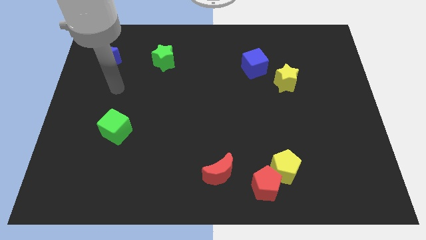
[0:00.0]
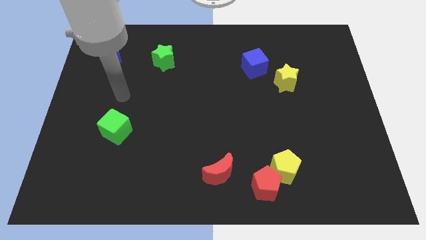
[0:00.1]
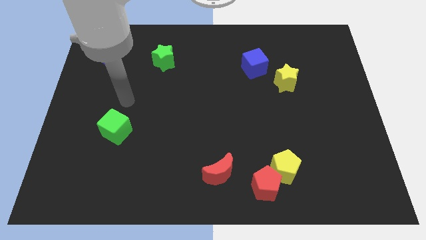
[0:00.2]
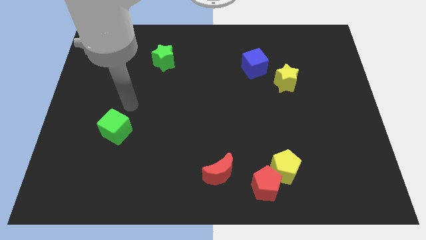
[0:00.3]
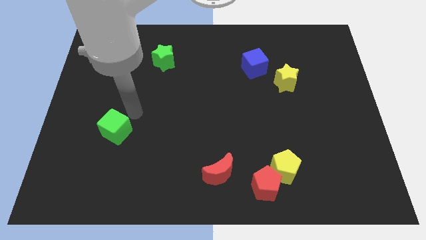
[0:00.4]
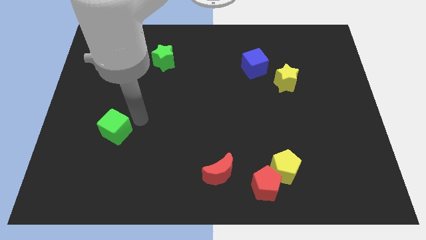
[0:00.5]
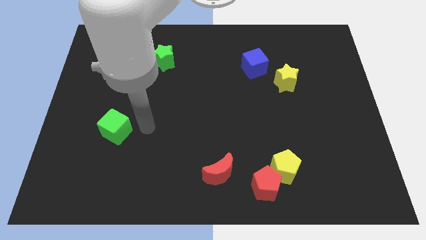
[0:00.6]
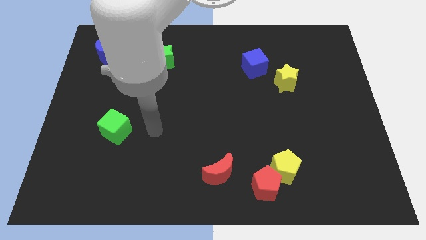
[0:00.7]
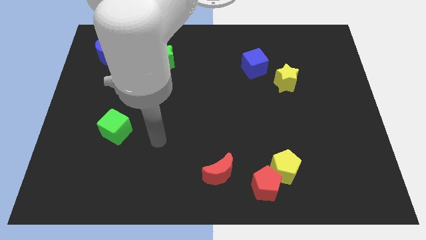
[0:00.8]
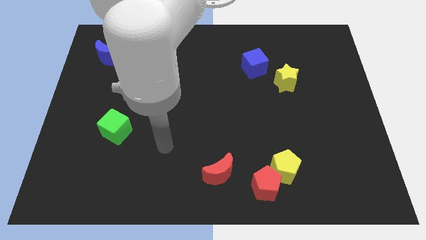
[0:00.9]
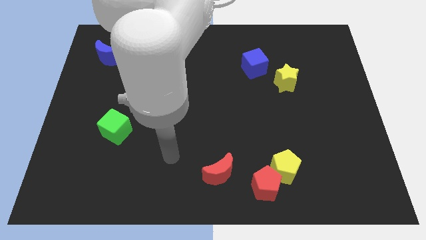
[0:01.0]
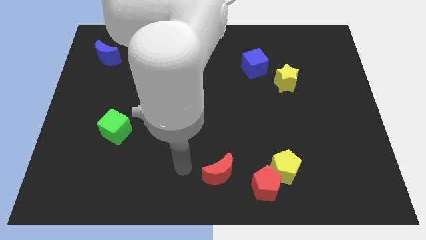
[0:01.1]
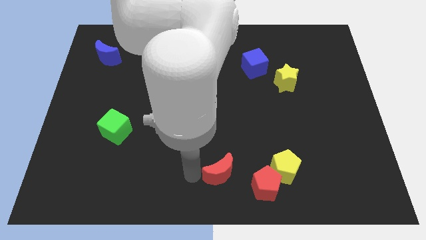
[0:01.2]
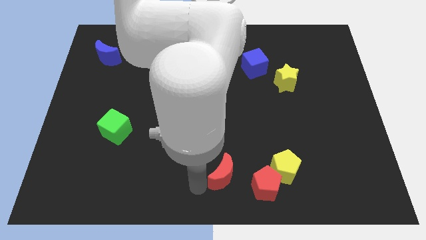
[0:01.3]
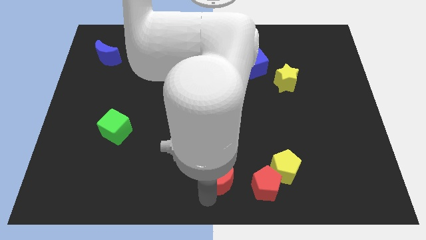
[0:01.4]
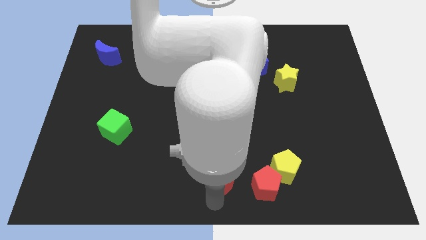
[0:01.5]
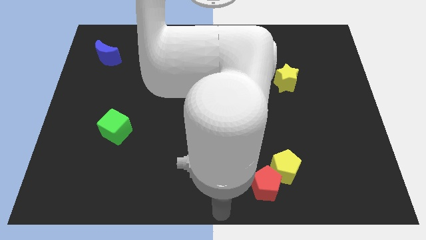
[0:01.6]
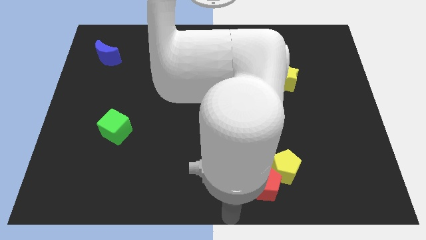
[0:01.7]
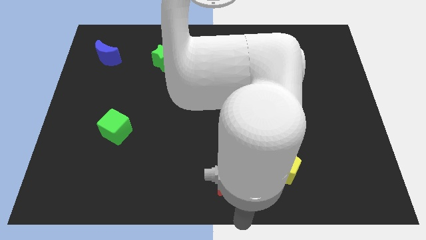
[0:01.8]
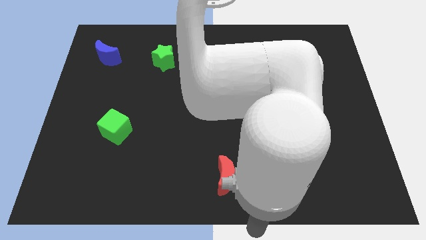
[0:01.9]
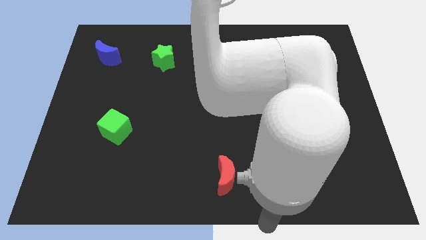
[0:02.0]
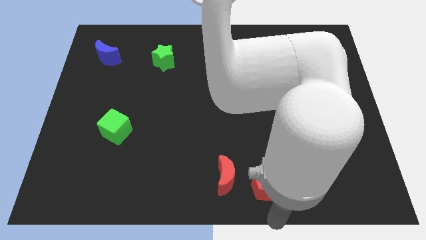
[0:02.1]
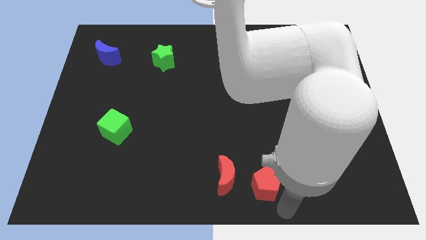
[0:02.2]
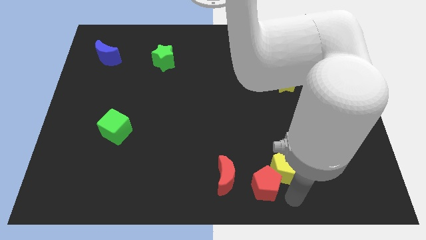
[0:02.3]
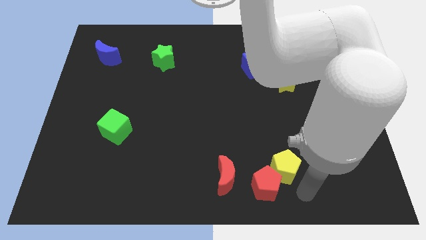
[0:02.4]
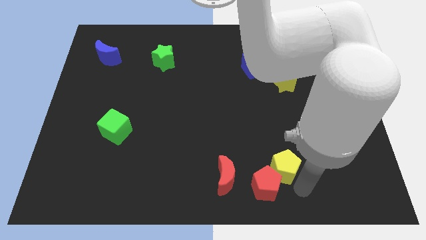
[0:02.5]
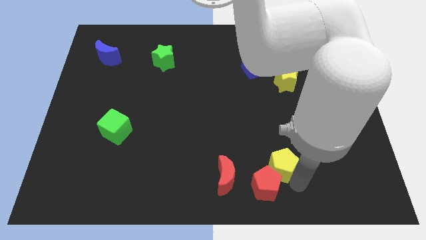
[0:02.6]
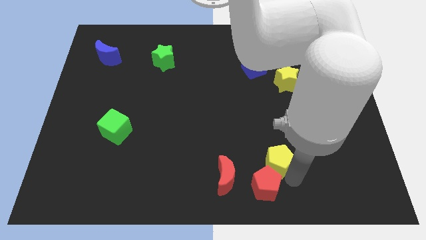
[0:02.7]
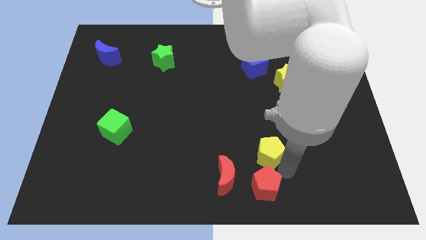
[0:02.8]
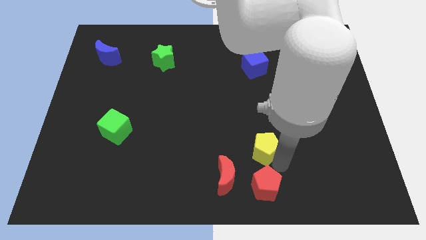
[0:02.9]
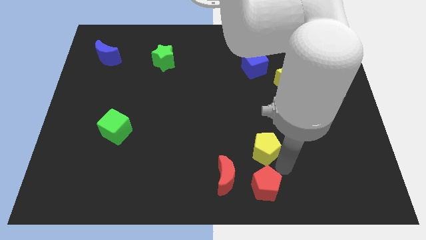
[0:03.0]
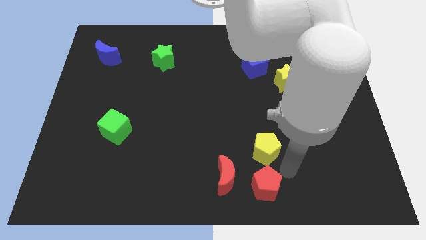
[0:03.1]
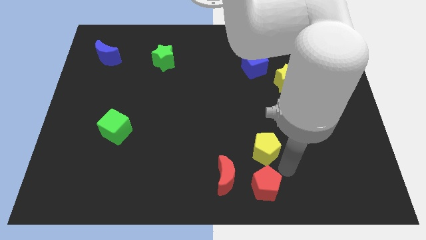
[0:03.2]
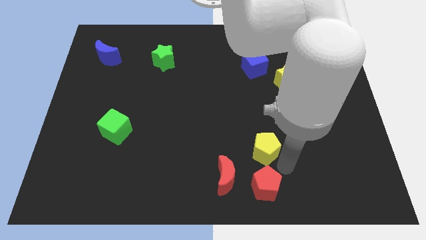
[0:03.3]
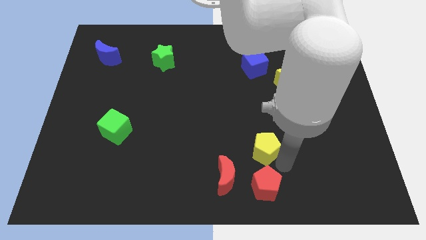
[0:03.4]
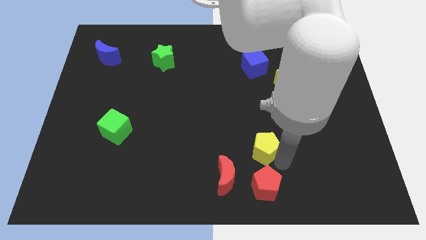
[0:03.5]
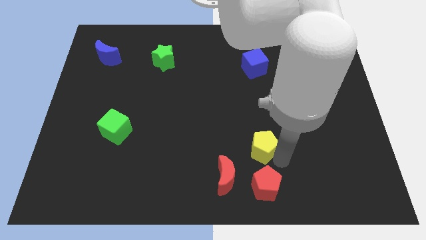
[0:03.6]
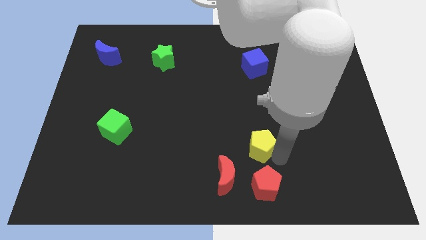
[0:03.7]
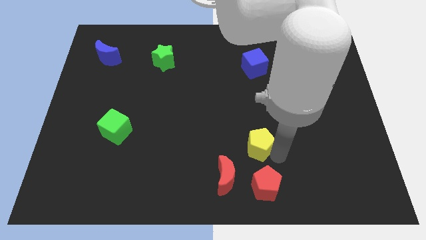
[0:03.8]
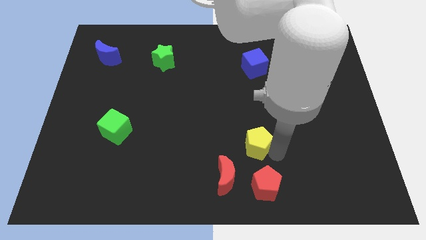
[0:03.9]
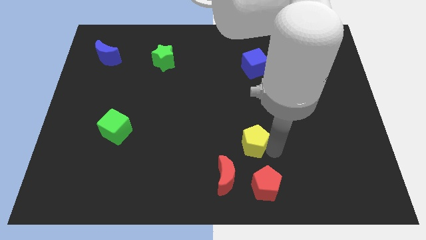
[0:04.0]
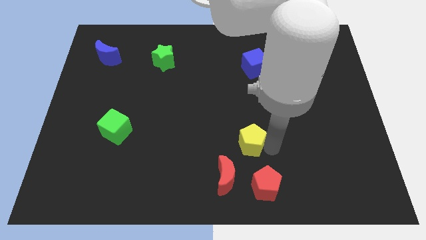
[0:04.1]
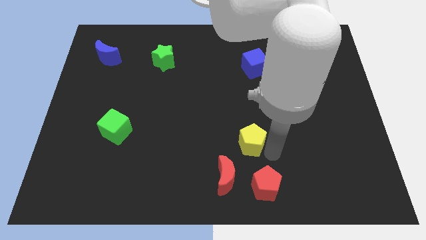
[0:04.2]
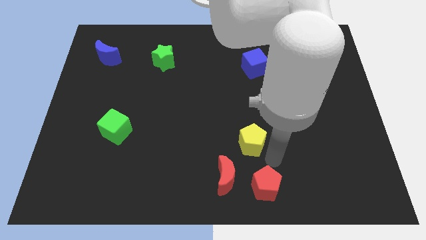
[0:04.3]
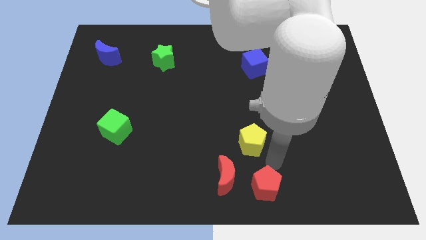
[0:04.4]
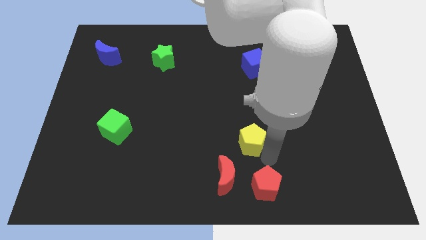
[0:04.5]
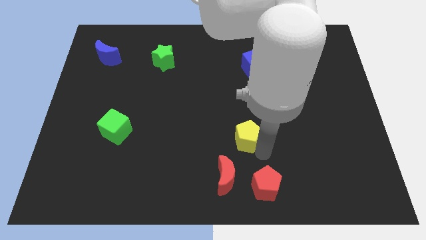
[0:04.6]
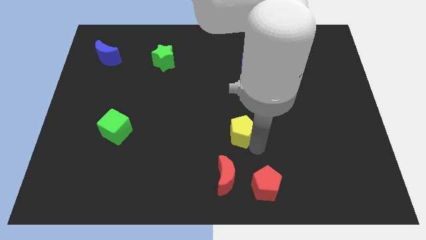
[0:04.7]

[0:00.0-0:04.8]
slide the yellow pentagon to the middle

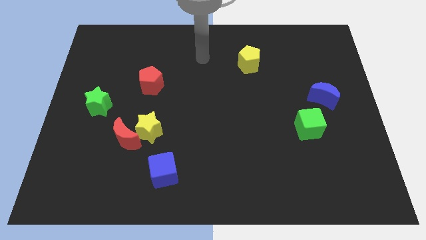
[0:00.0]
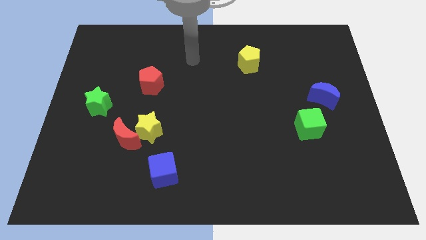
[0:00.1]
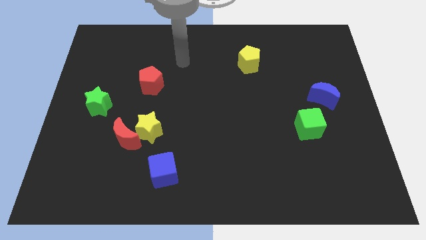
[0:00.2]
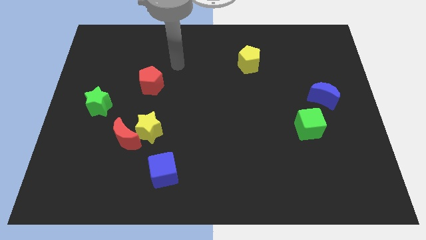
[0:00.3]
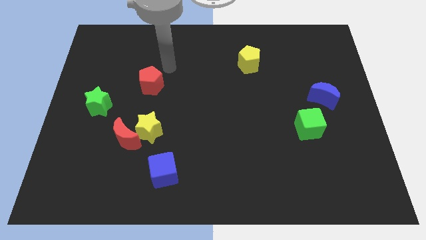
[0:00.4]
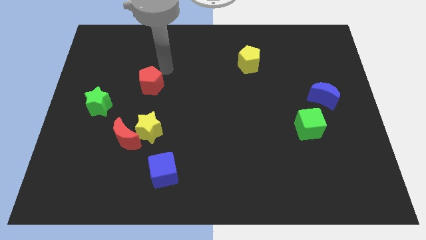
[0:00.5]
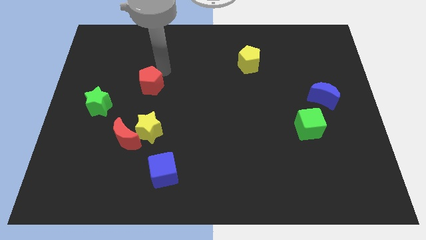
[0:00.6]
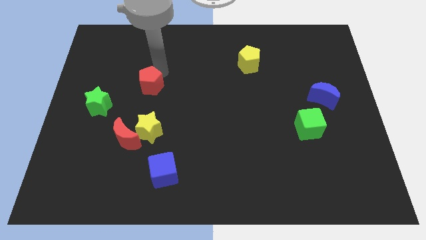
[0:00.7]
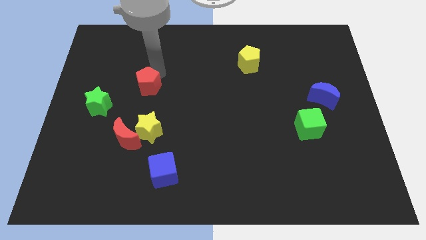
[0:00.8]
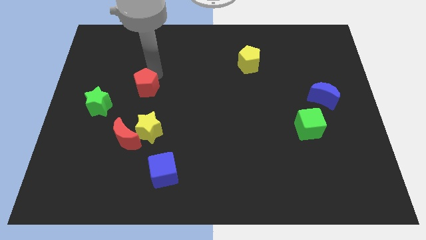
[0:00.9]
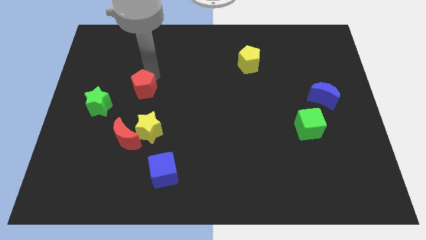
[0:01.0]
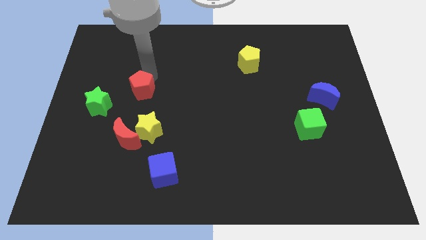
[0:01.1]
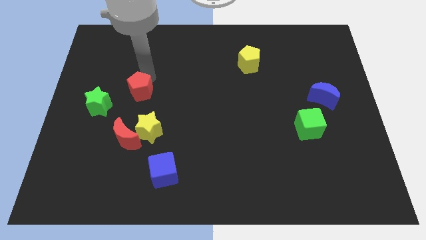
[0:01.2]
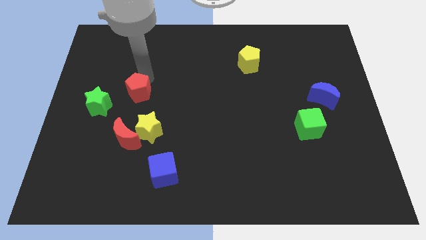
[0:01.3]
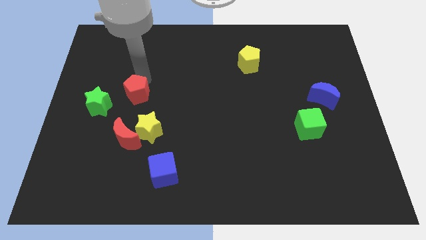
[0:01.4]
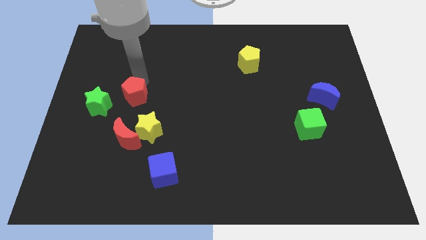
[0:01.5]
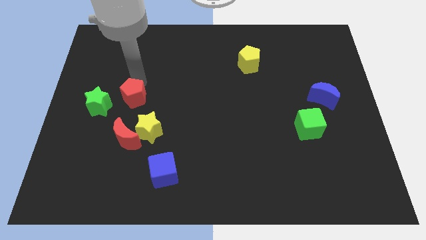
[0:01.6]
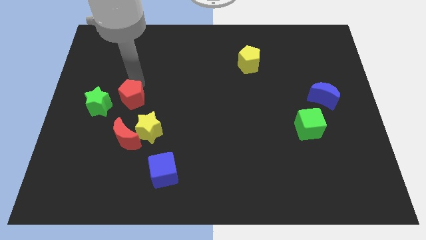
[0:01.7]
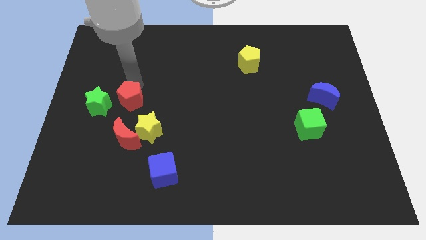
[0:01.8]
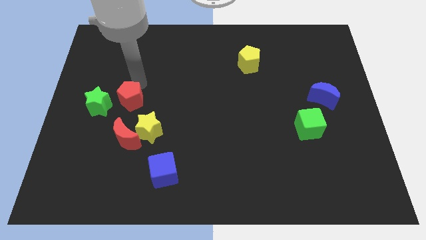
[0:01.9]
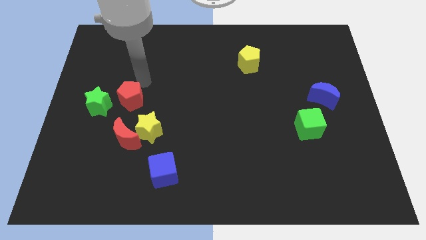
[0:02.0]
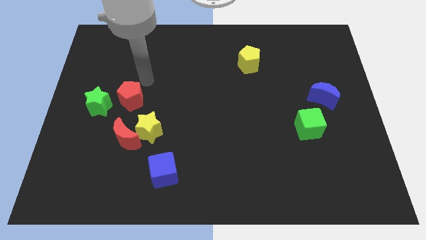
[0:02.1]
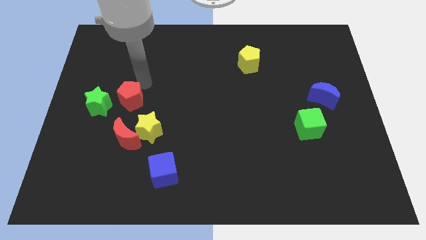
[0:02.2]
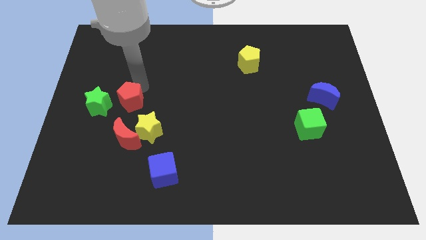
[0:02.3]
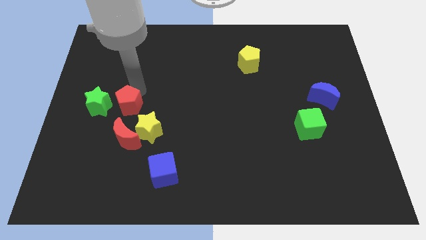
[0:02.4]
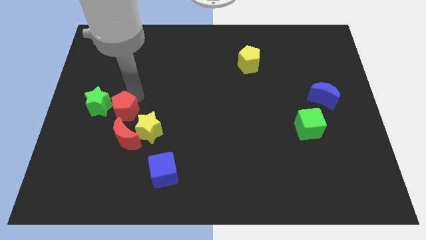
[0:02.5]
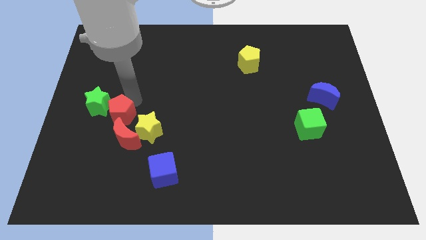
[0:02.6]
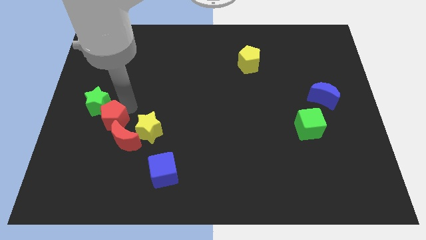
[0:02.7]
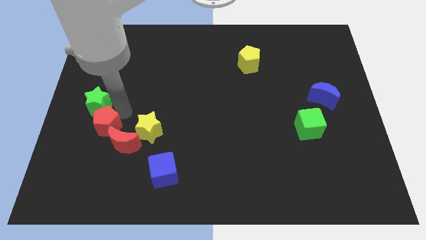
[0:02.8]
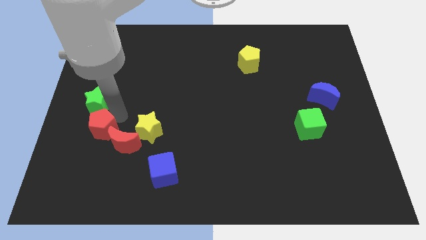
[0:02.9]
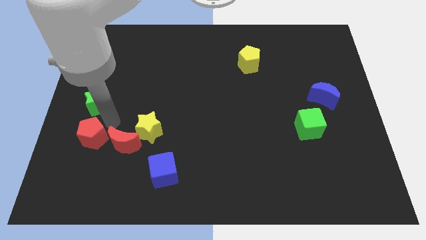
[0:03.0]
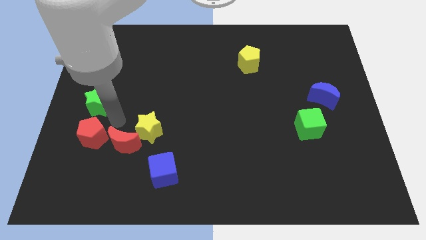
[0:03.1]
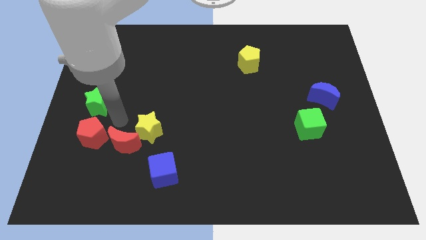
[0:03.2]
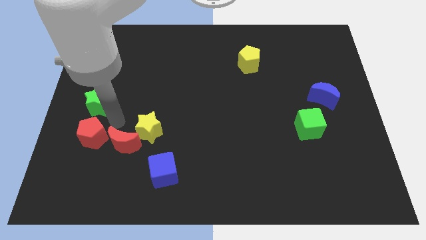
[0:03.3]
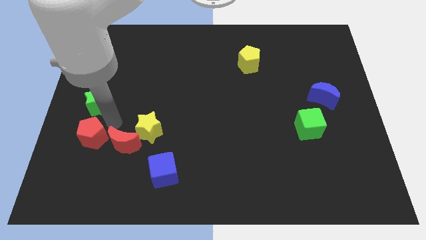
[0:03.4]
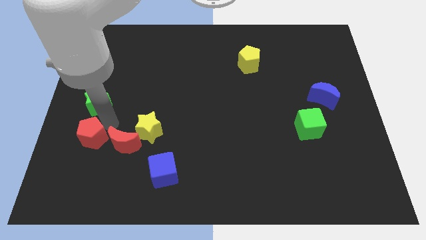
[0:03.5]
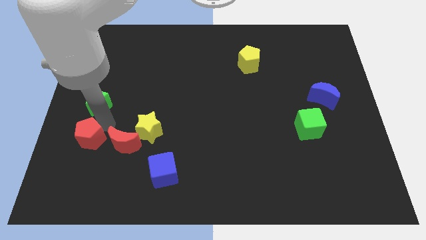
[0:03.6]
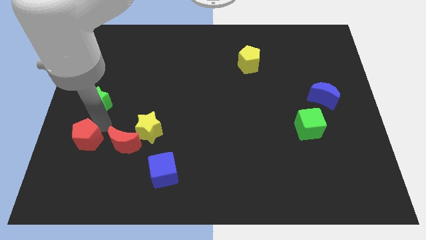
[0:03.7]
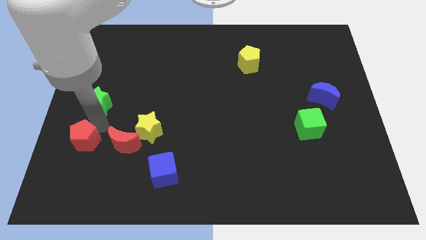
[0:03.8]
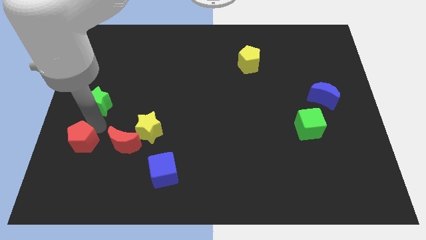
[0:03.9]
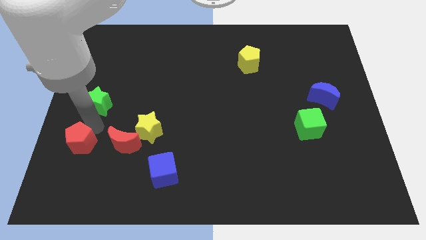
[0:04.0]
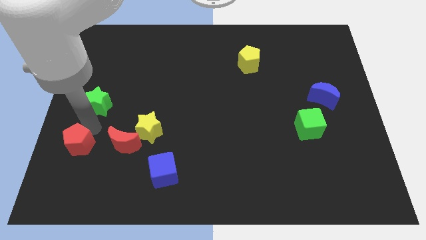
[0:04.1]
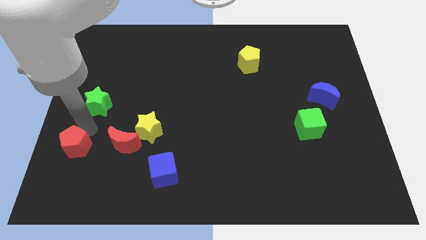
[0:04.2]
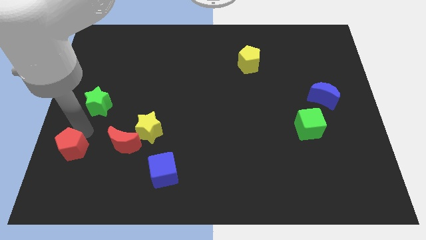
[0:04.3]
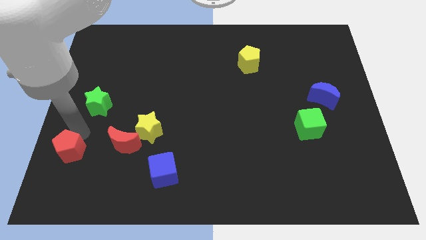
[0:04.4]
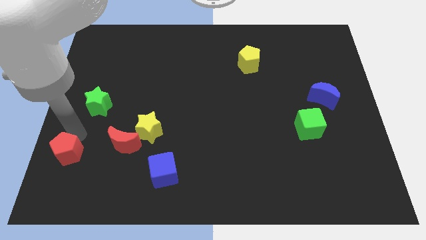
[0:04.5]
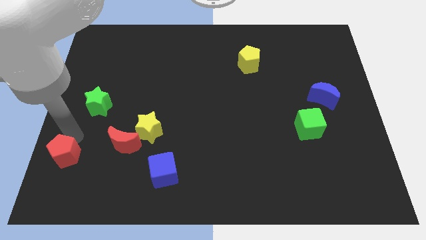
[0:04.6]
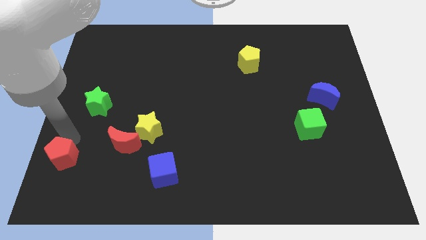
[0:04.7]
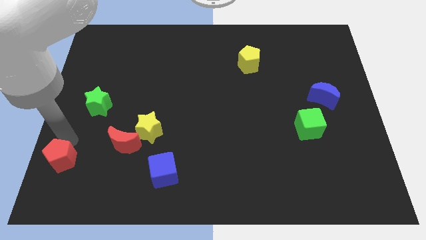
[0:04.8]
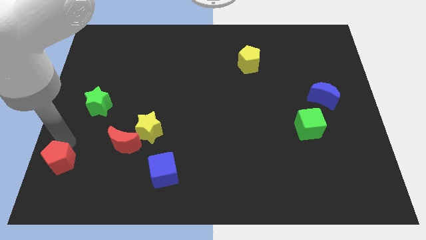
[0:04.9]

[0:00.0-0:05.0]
slide the red pentagon to the bottom left corner
